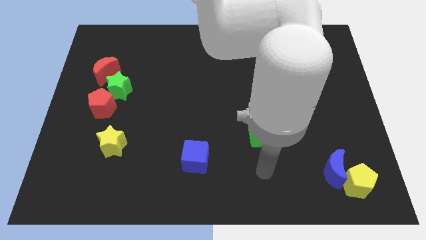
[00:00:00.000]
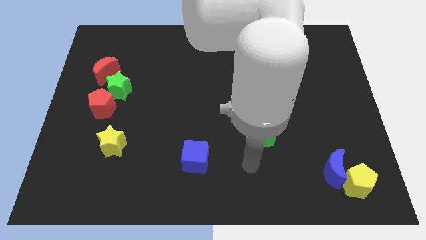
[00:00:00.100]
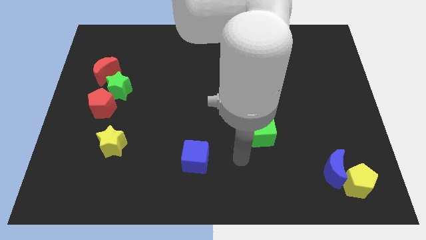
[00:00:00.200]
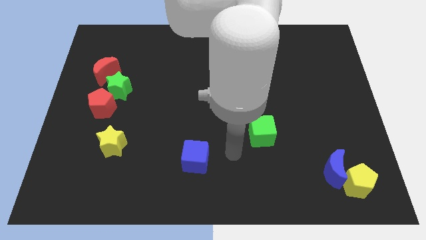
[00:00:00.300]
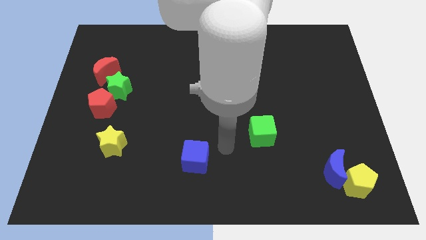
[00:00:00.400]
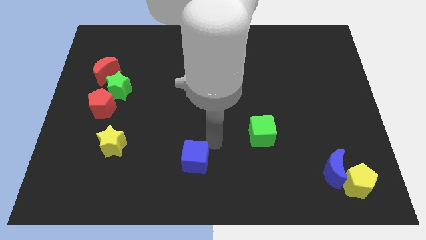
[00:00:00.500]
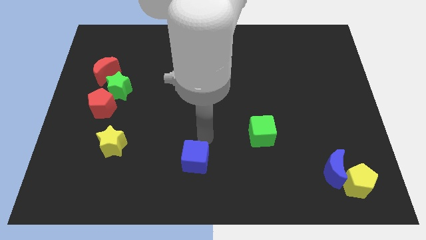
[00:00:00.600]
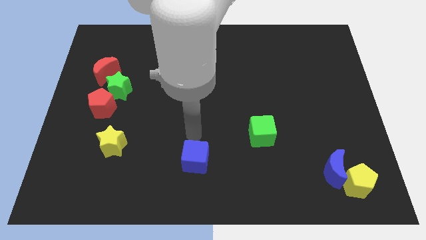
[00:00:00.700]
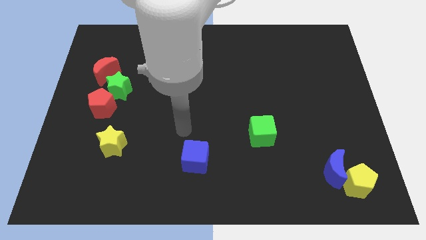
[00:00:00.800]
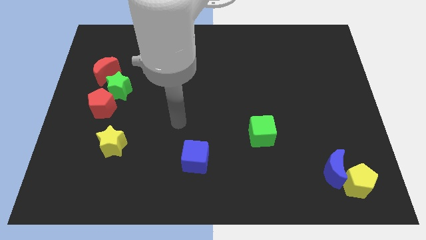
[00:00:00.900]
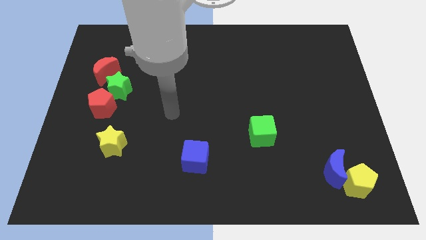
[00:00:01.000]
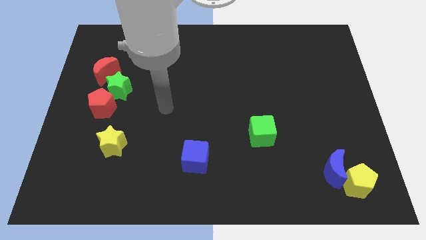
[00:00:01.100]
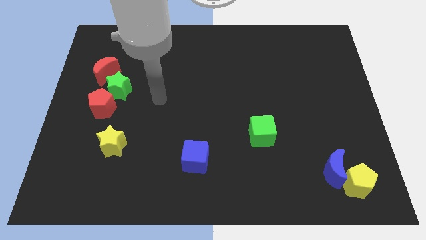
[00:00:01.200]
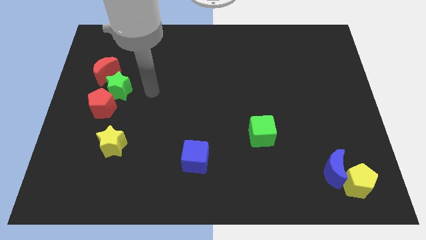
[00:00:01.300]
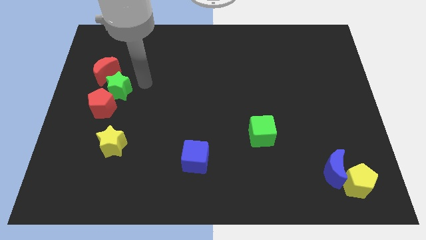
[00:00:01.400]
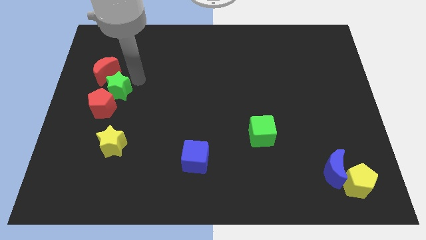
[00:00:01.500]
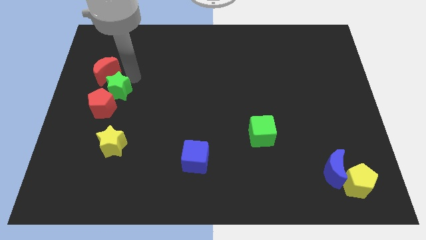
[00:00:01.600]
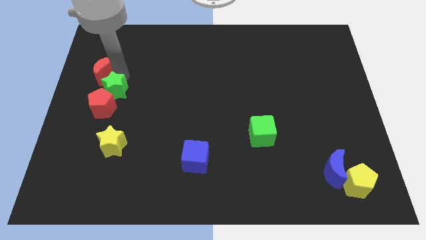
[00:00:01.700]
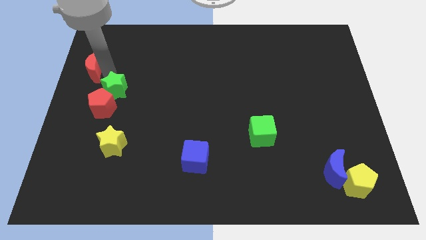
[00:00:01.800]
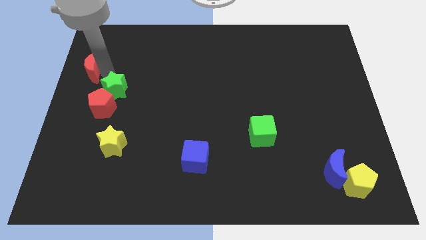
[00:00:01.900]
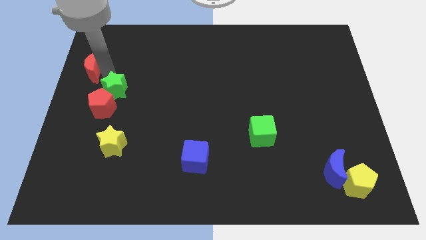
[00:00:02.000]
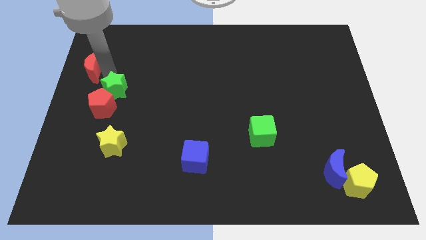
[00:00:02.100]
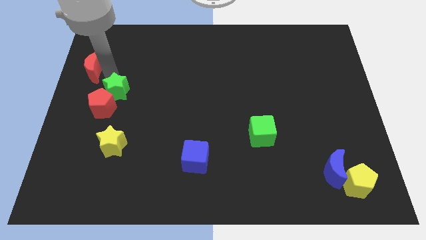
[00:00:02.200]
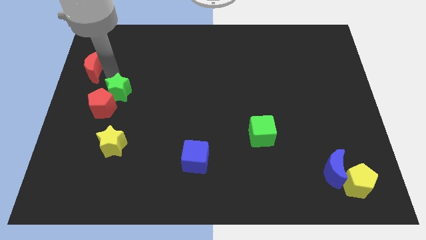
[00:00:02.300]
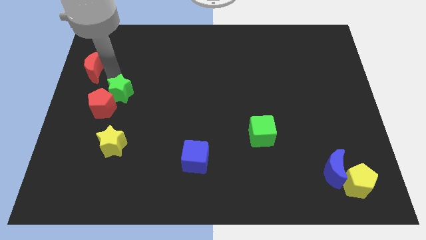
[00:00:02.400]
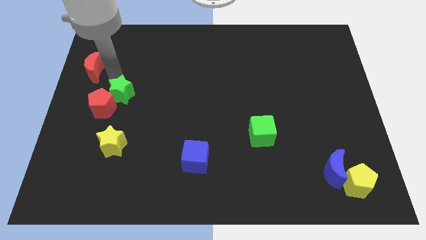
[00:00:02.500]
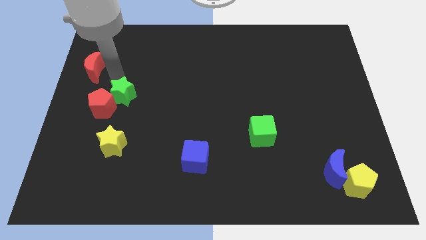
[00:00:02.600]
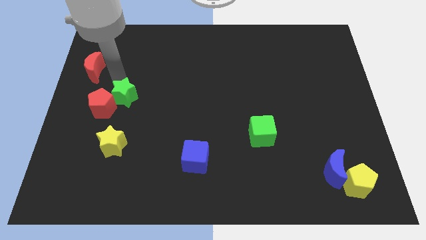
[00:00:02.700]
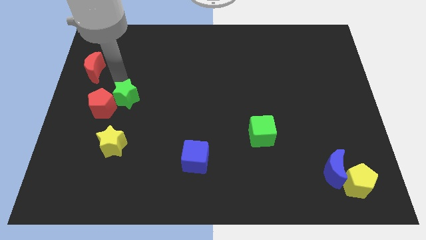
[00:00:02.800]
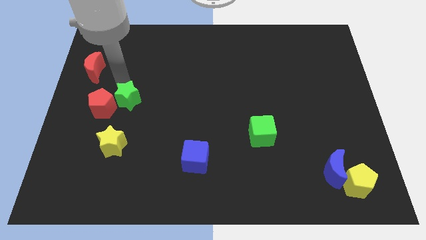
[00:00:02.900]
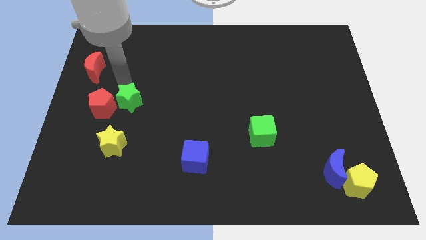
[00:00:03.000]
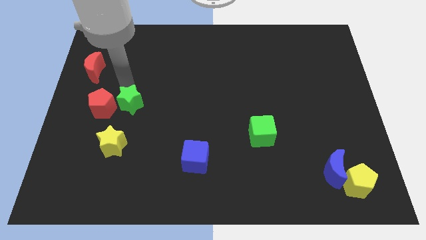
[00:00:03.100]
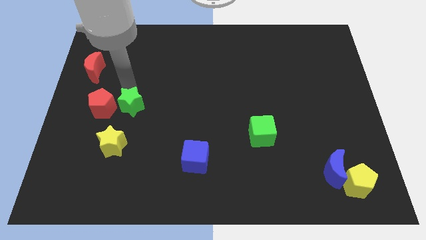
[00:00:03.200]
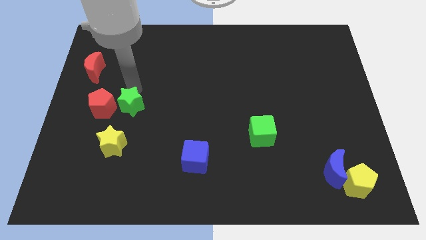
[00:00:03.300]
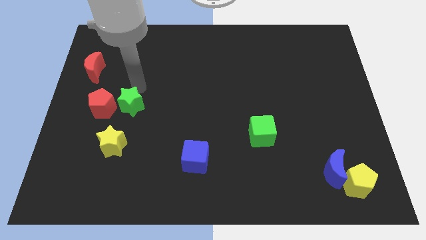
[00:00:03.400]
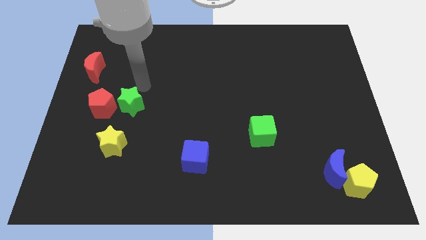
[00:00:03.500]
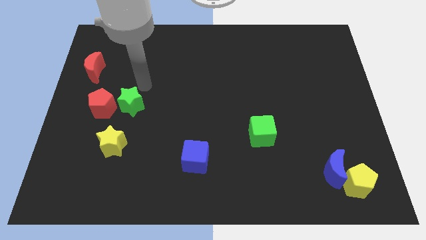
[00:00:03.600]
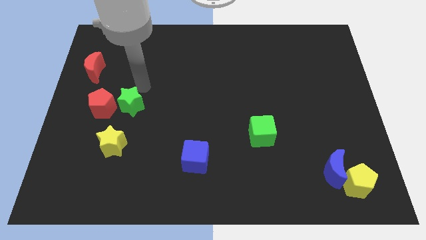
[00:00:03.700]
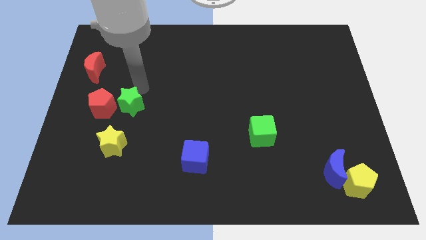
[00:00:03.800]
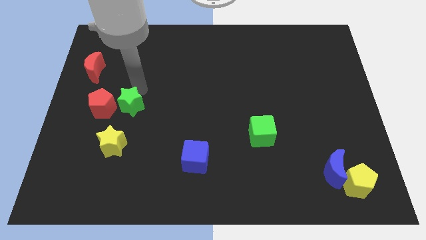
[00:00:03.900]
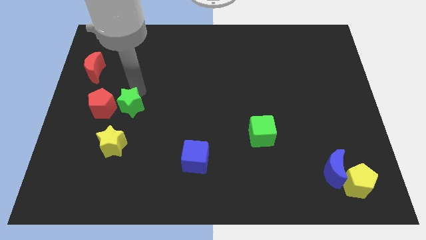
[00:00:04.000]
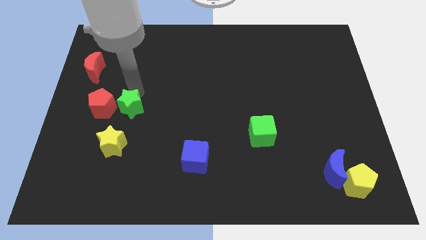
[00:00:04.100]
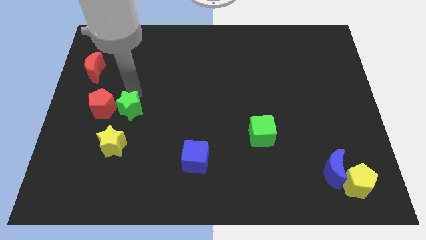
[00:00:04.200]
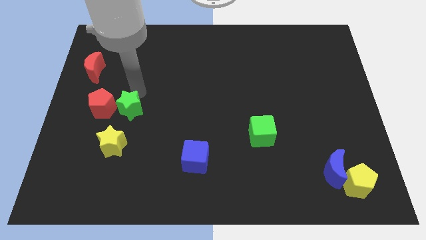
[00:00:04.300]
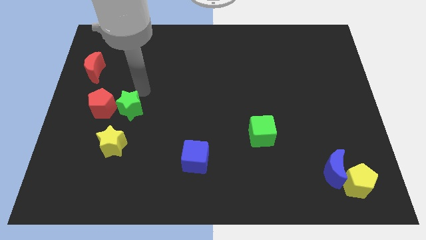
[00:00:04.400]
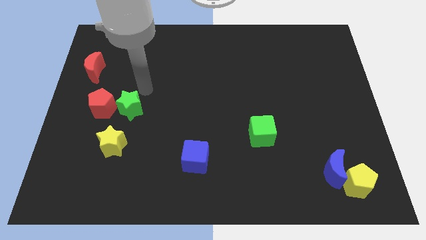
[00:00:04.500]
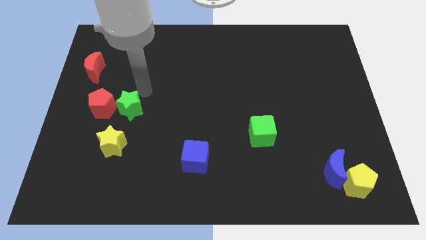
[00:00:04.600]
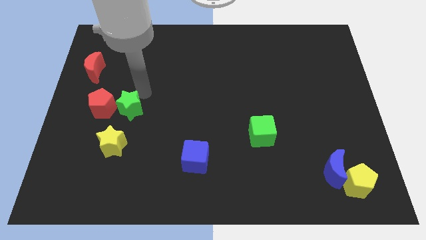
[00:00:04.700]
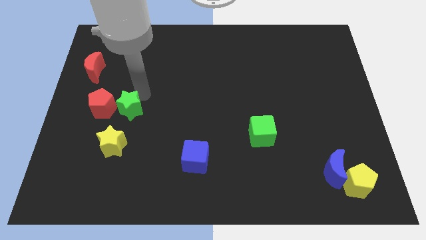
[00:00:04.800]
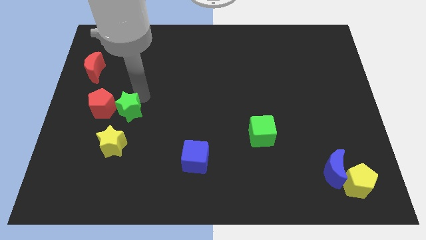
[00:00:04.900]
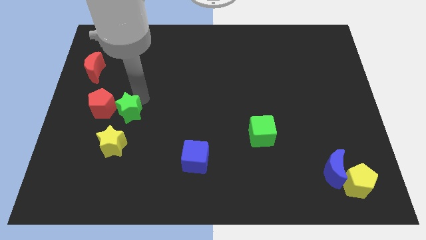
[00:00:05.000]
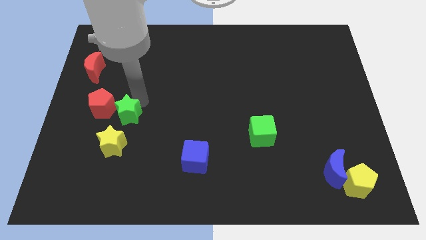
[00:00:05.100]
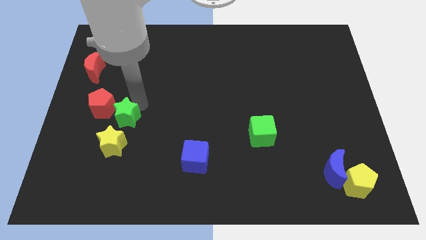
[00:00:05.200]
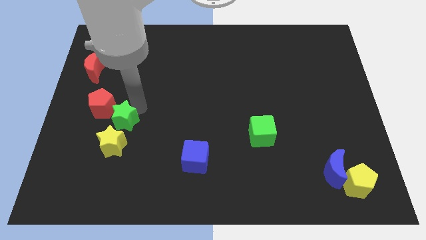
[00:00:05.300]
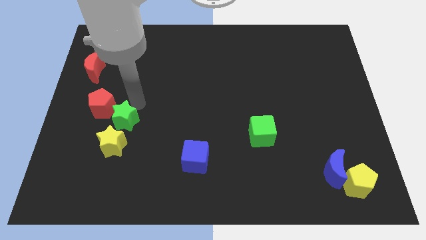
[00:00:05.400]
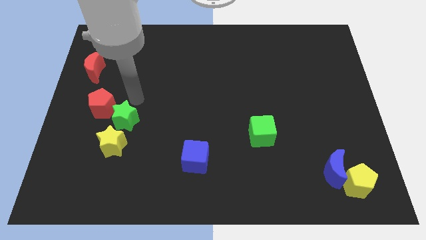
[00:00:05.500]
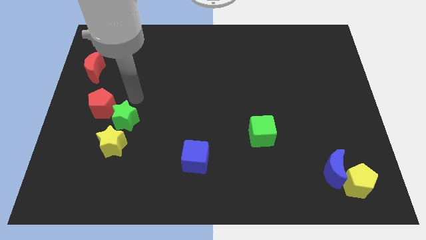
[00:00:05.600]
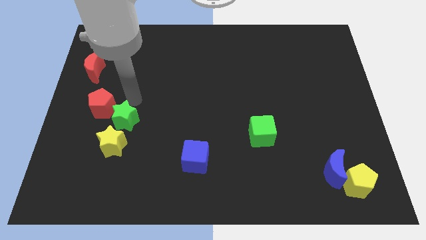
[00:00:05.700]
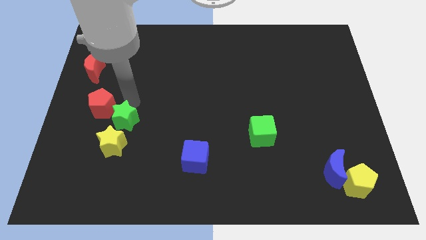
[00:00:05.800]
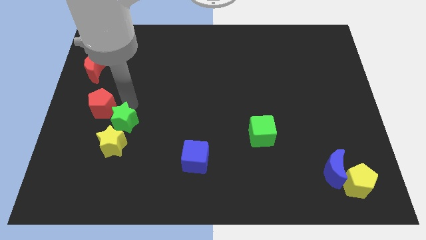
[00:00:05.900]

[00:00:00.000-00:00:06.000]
push the green star close to the yellow star

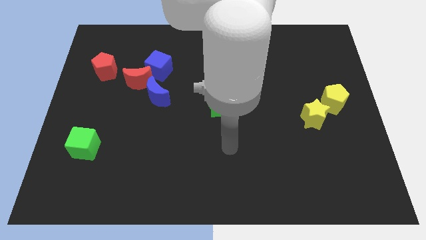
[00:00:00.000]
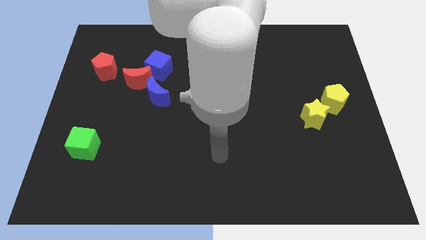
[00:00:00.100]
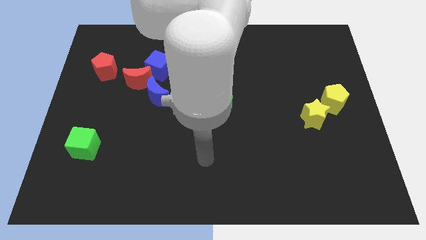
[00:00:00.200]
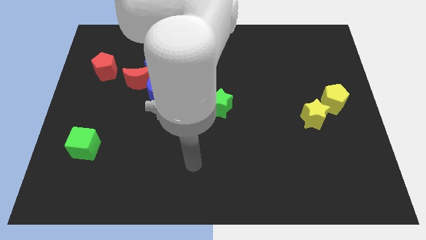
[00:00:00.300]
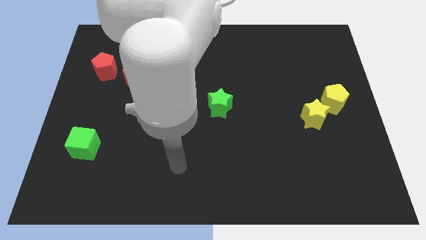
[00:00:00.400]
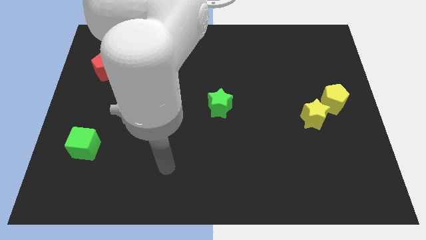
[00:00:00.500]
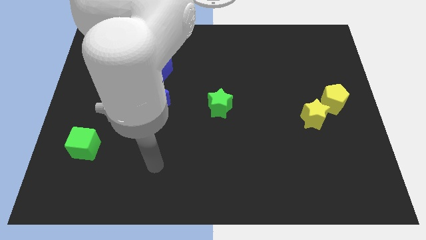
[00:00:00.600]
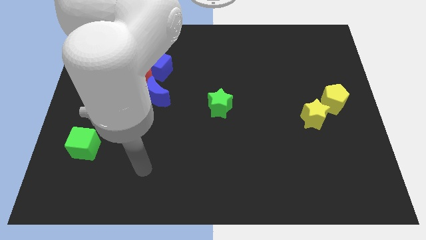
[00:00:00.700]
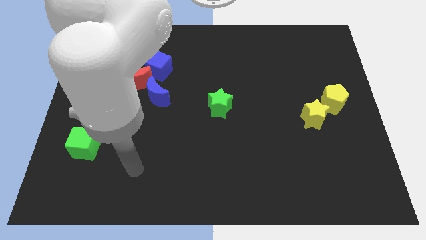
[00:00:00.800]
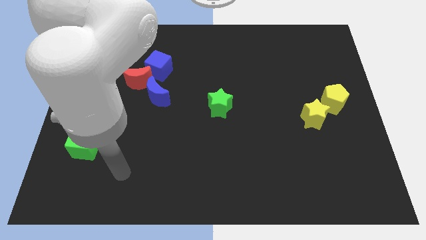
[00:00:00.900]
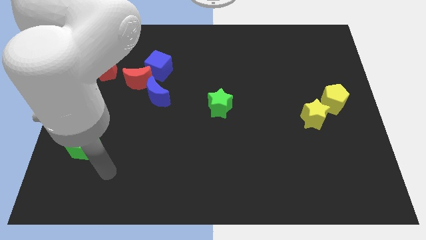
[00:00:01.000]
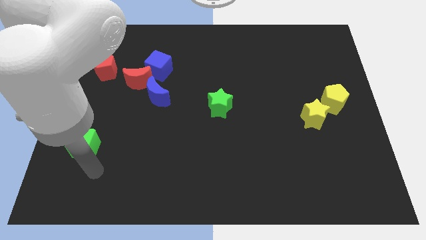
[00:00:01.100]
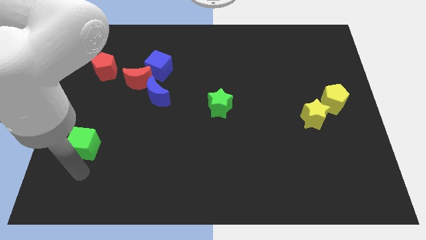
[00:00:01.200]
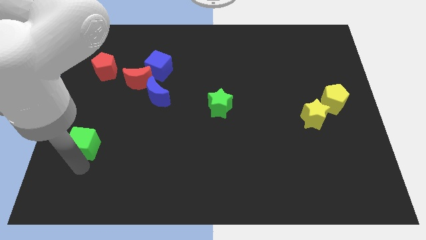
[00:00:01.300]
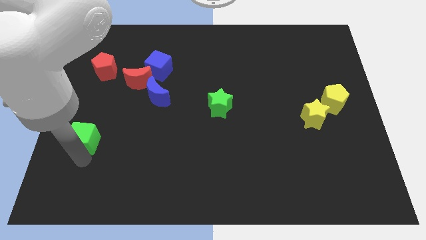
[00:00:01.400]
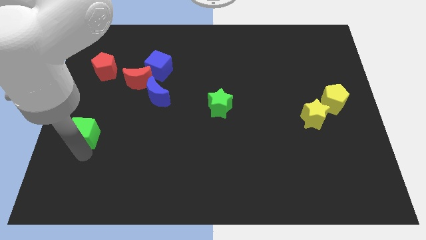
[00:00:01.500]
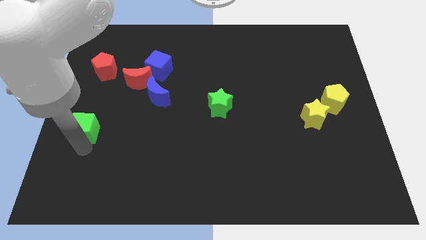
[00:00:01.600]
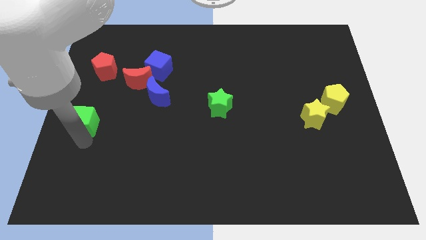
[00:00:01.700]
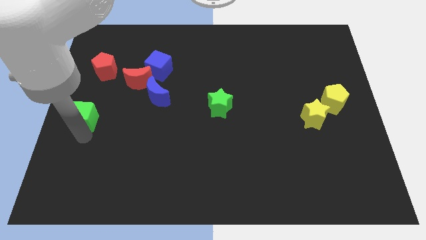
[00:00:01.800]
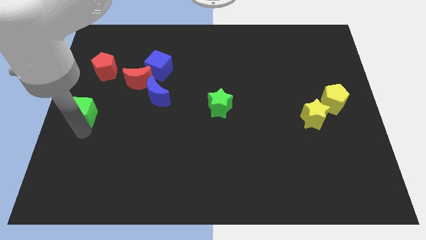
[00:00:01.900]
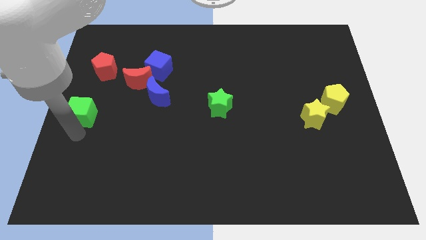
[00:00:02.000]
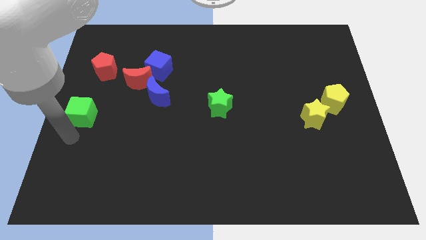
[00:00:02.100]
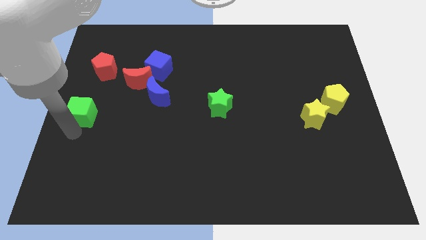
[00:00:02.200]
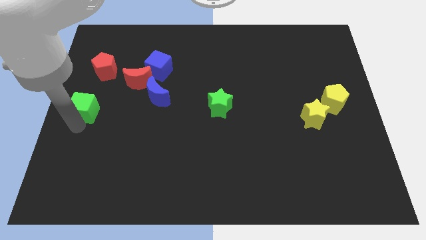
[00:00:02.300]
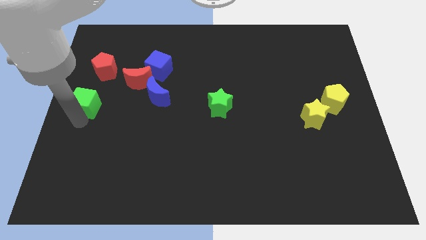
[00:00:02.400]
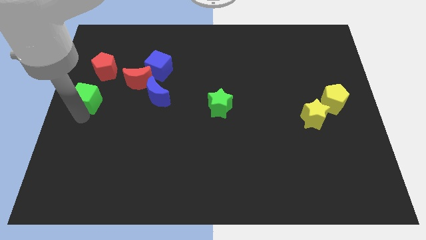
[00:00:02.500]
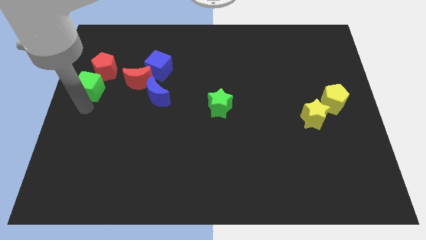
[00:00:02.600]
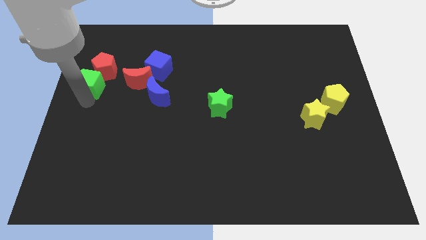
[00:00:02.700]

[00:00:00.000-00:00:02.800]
move the green cube towards the red pentagon
